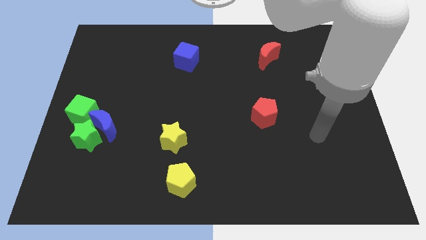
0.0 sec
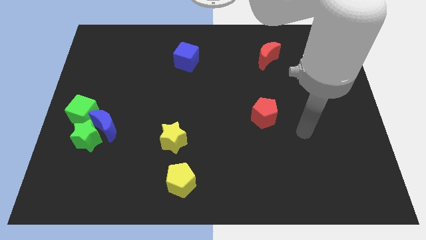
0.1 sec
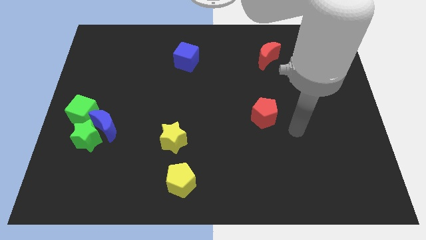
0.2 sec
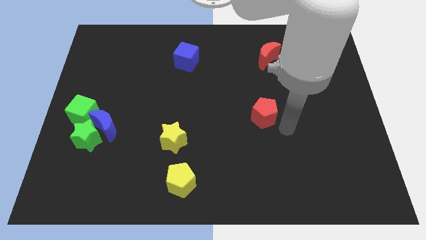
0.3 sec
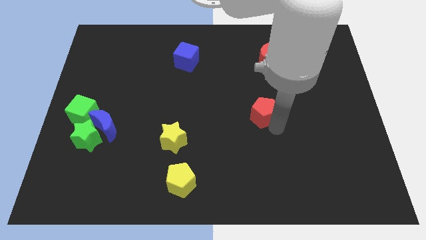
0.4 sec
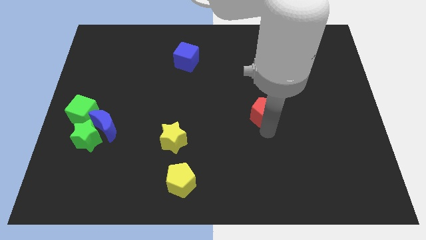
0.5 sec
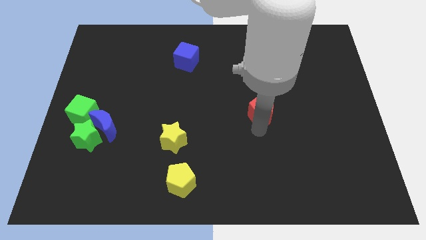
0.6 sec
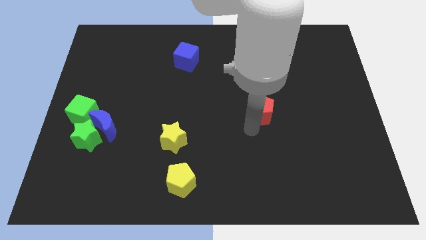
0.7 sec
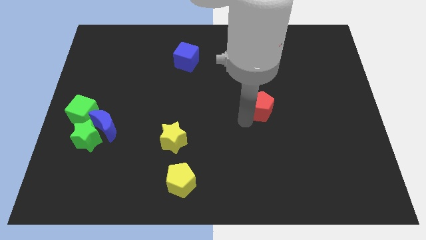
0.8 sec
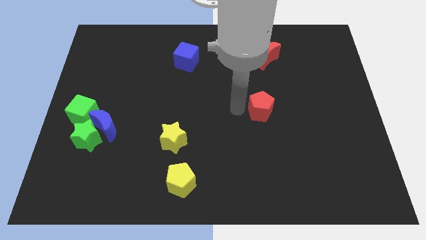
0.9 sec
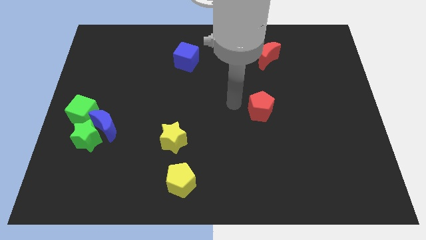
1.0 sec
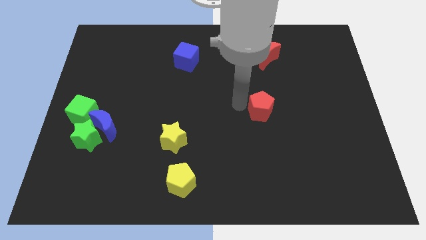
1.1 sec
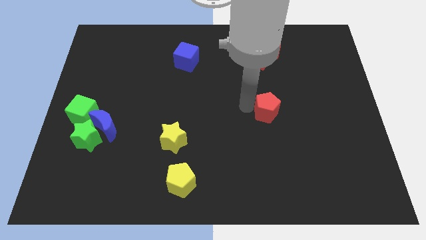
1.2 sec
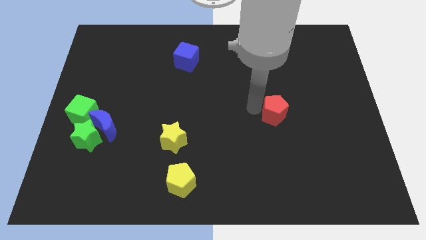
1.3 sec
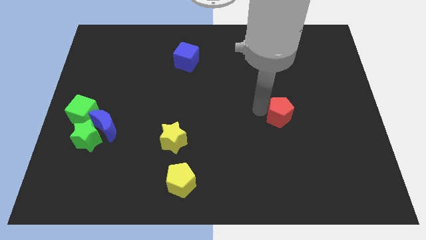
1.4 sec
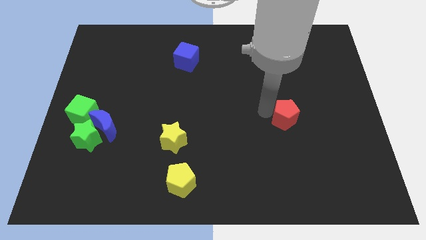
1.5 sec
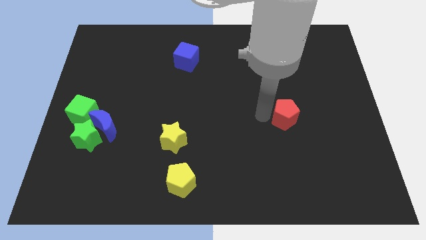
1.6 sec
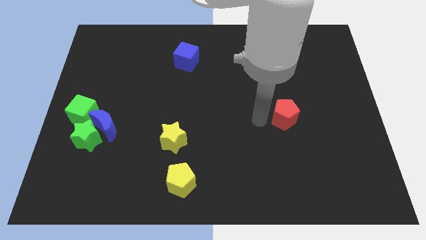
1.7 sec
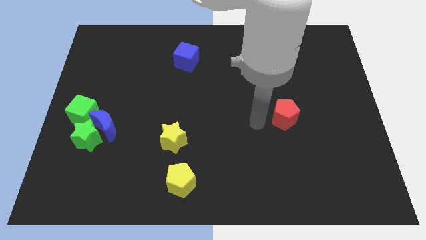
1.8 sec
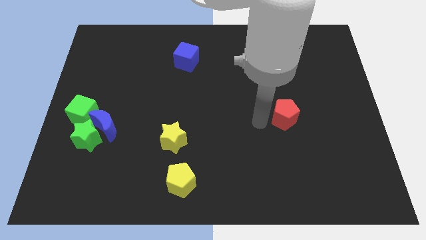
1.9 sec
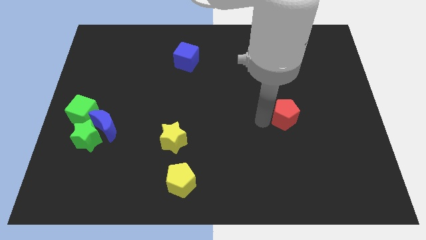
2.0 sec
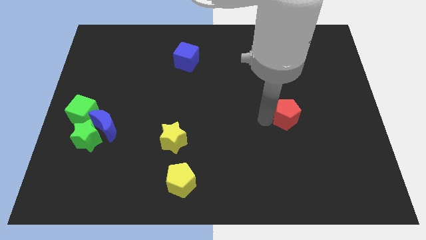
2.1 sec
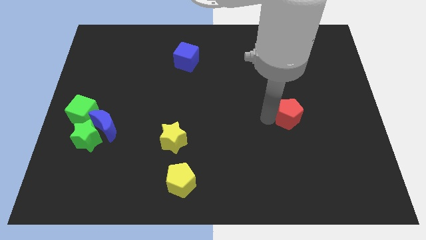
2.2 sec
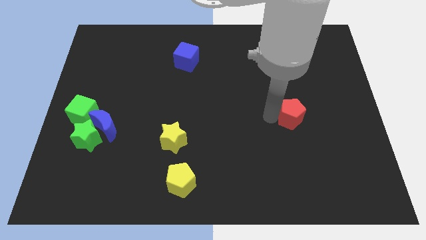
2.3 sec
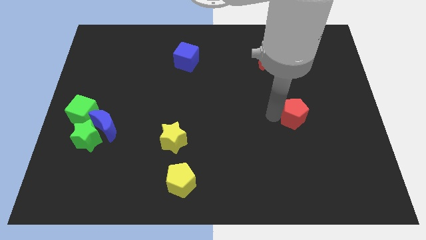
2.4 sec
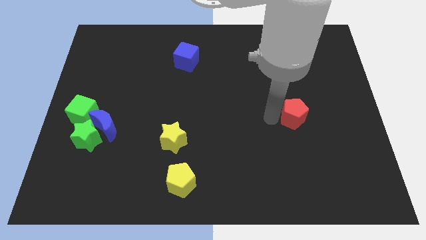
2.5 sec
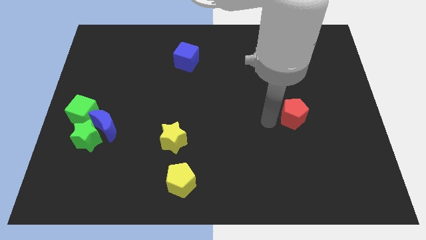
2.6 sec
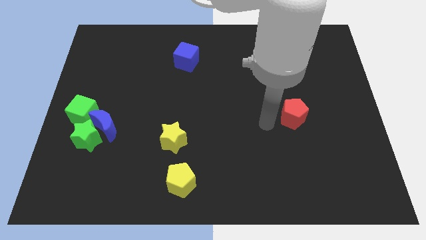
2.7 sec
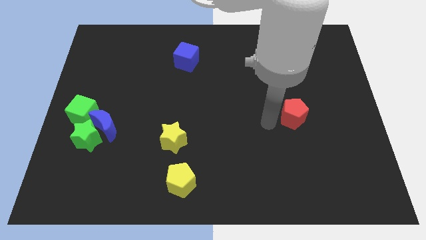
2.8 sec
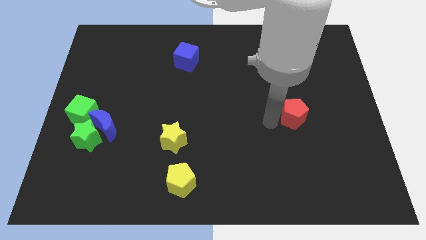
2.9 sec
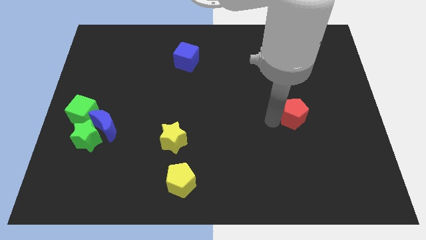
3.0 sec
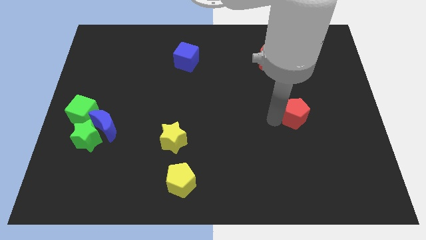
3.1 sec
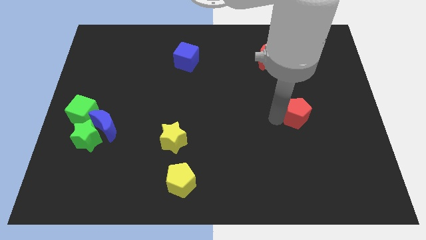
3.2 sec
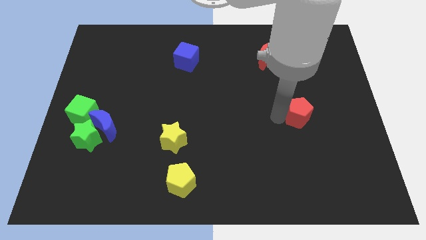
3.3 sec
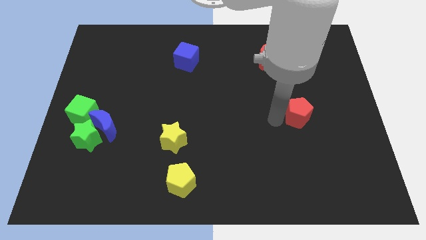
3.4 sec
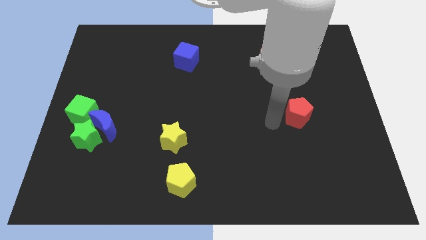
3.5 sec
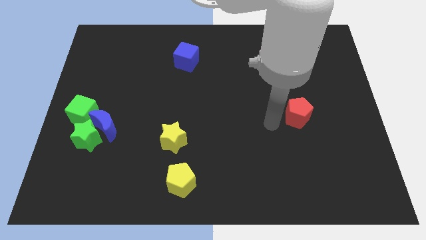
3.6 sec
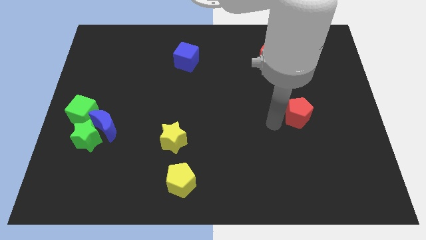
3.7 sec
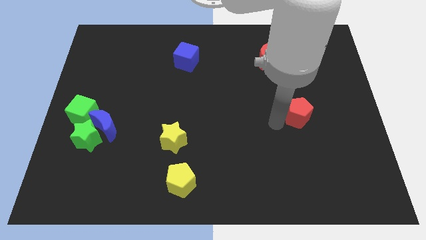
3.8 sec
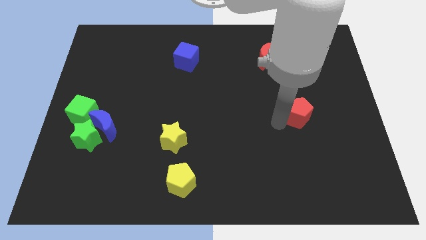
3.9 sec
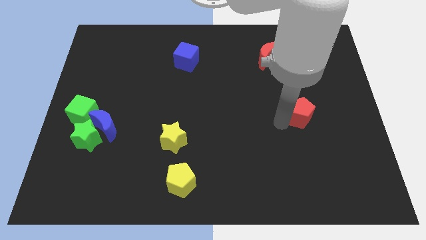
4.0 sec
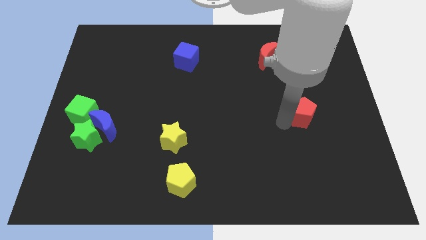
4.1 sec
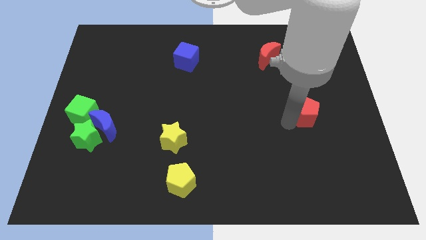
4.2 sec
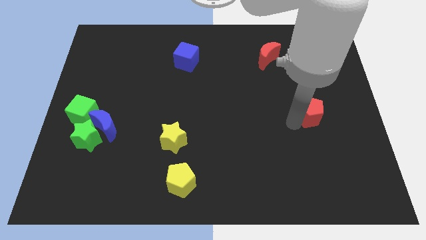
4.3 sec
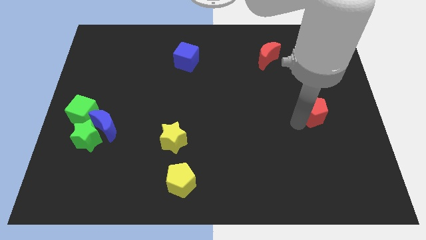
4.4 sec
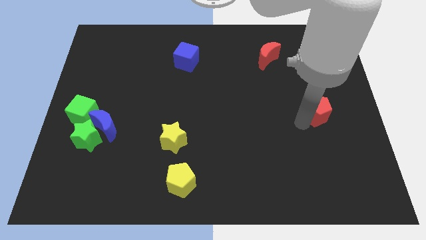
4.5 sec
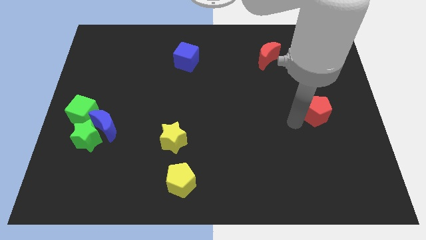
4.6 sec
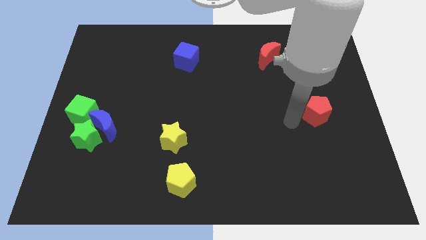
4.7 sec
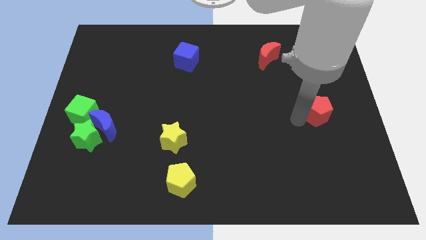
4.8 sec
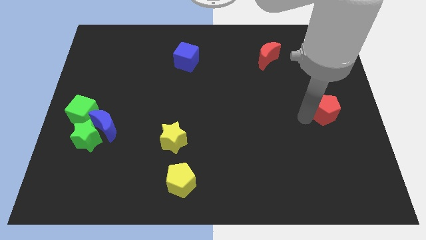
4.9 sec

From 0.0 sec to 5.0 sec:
move the red pentagon to the right side

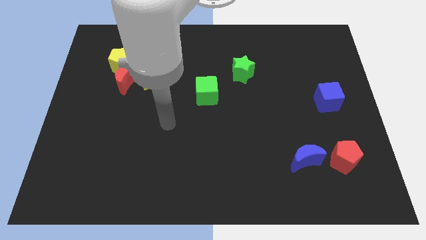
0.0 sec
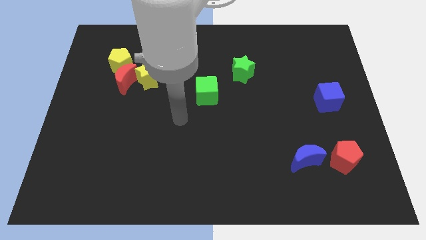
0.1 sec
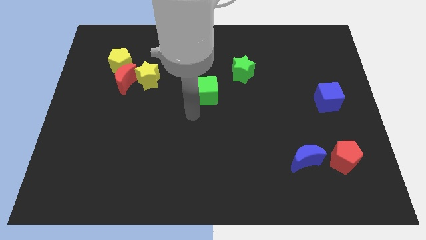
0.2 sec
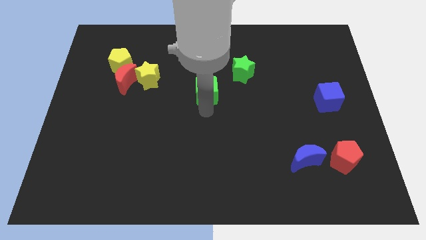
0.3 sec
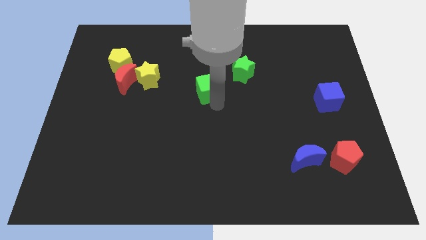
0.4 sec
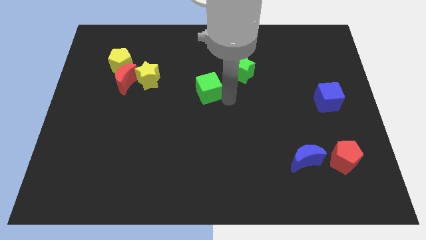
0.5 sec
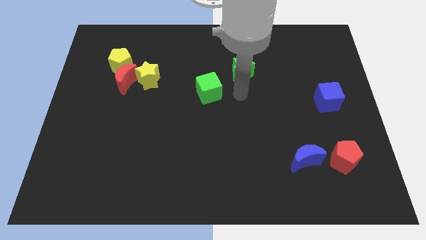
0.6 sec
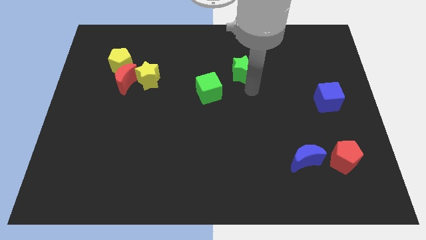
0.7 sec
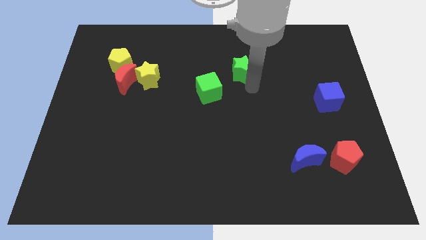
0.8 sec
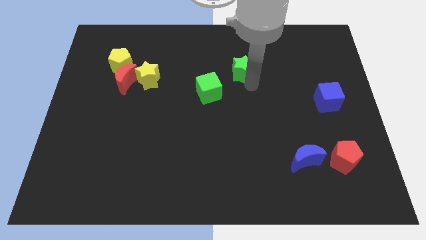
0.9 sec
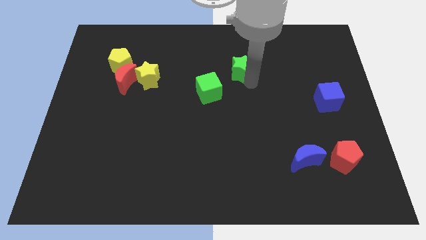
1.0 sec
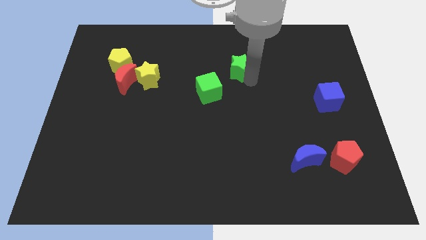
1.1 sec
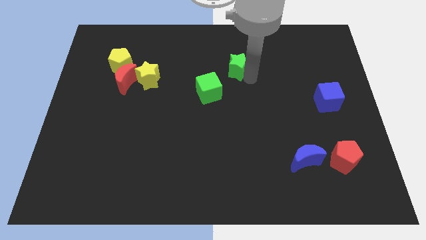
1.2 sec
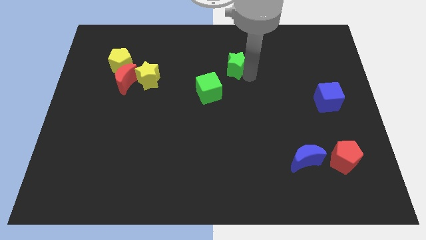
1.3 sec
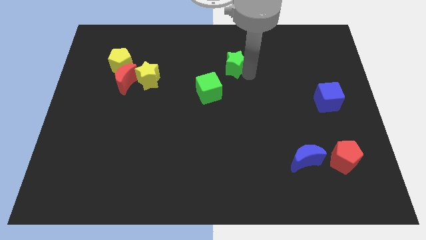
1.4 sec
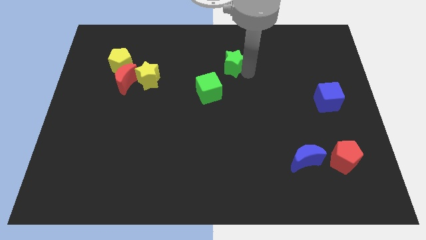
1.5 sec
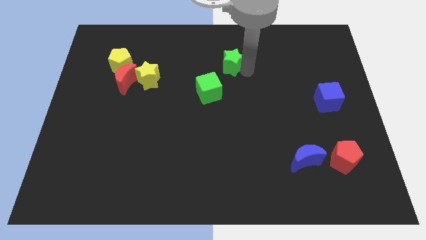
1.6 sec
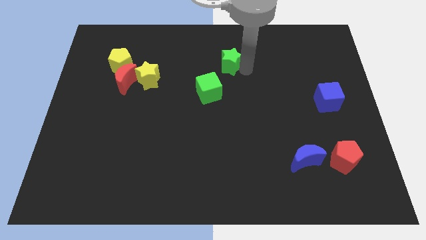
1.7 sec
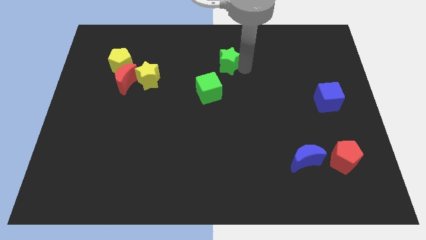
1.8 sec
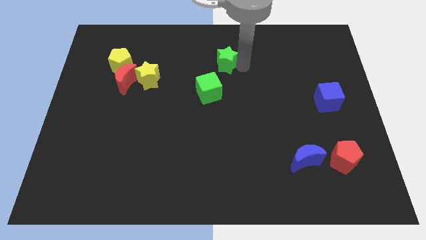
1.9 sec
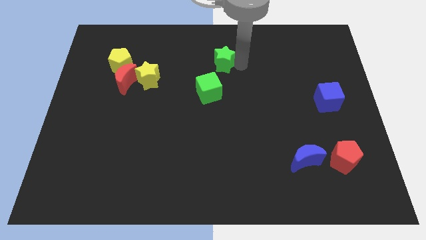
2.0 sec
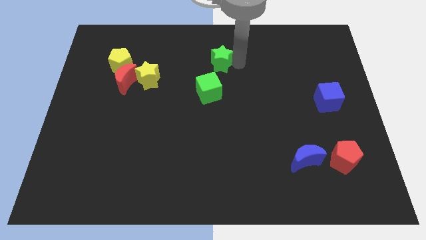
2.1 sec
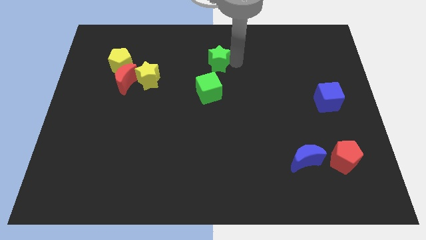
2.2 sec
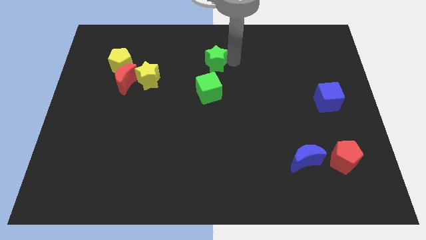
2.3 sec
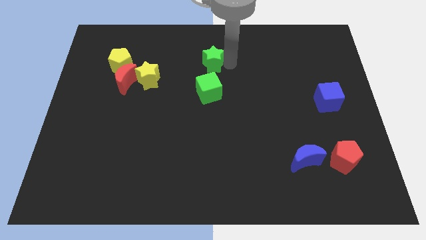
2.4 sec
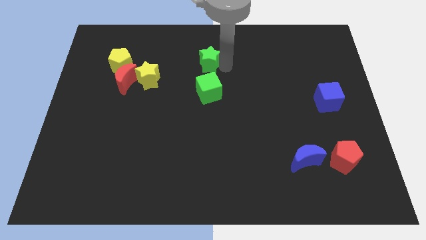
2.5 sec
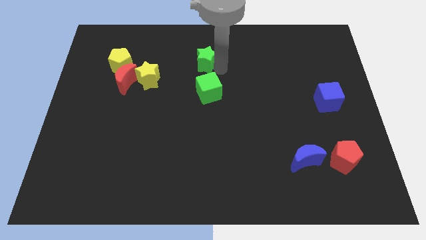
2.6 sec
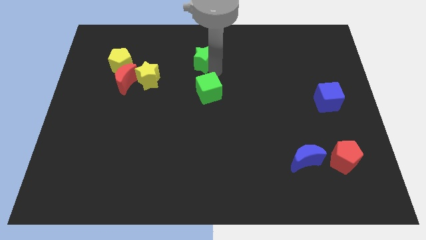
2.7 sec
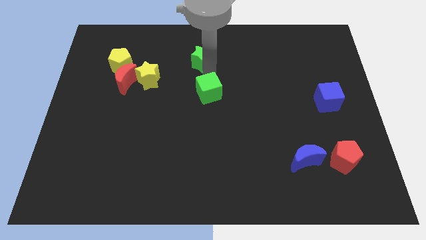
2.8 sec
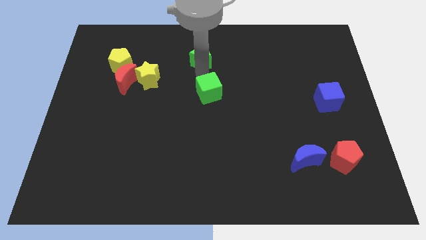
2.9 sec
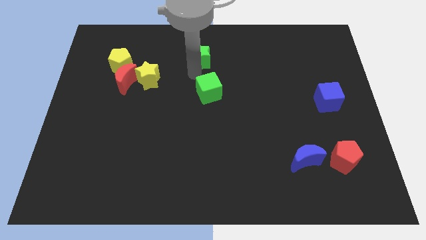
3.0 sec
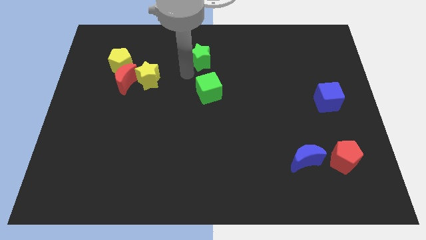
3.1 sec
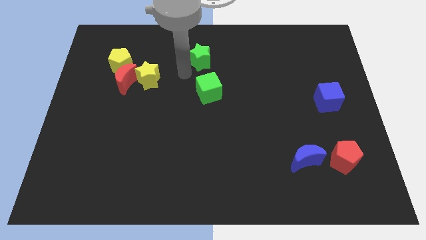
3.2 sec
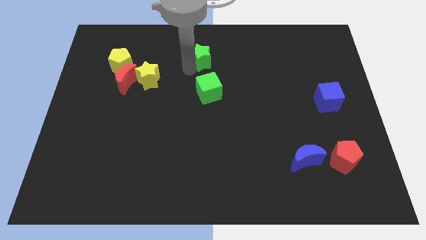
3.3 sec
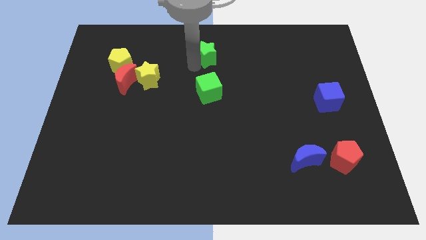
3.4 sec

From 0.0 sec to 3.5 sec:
move the green star to the top side
